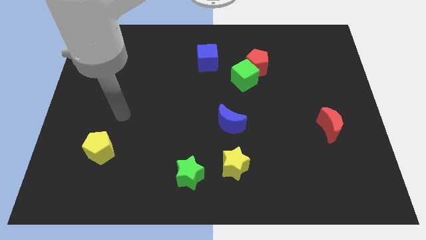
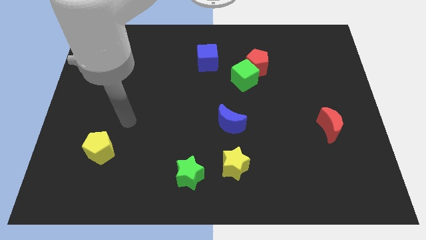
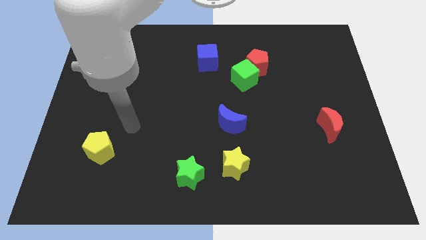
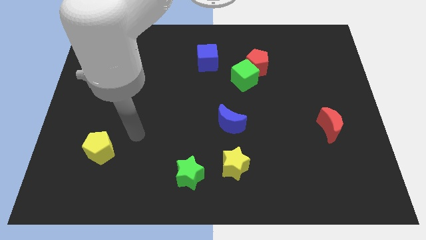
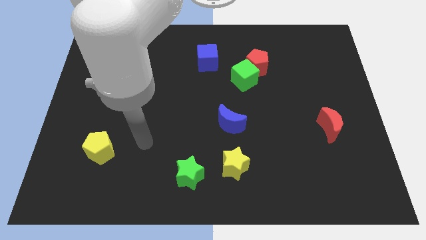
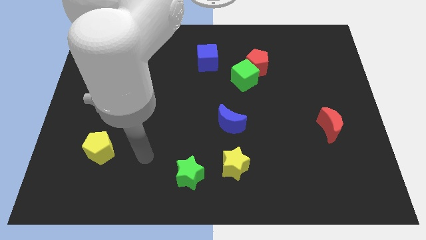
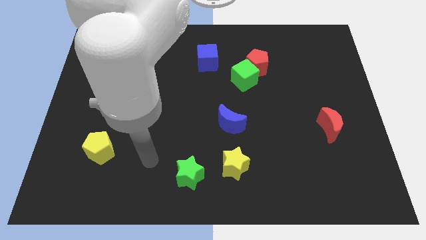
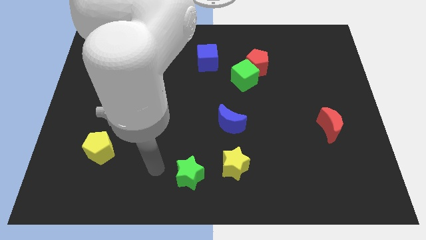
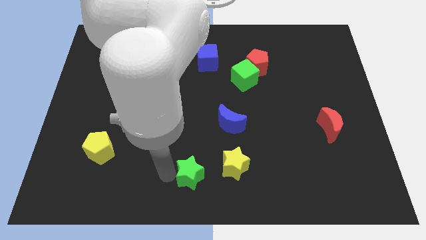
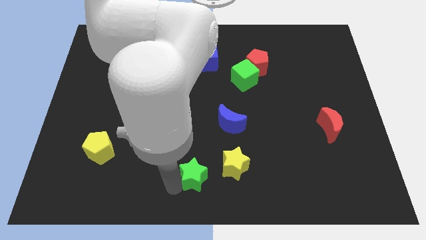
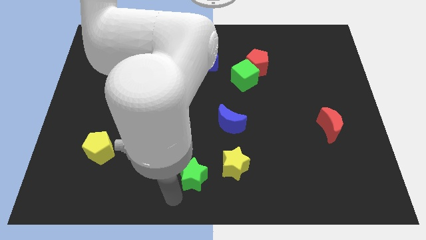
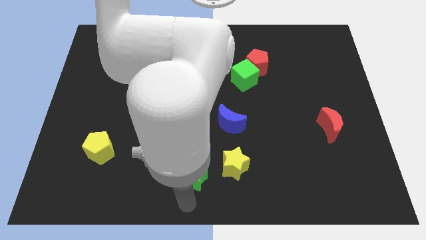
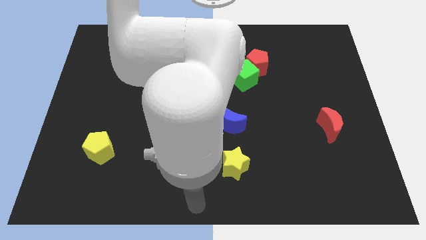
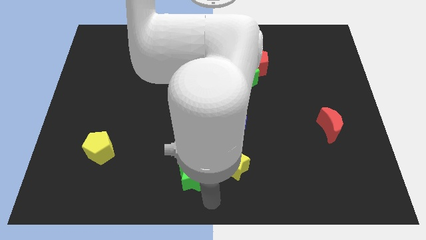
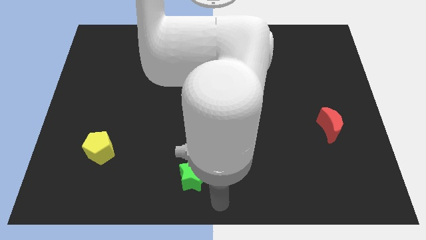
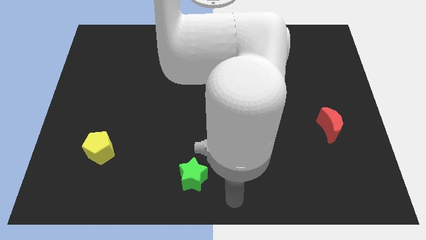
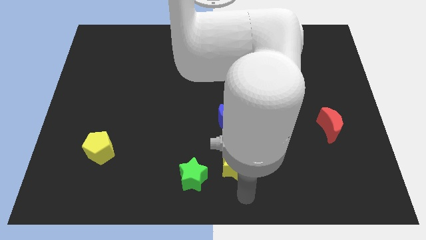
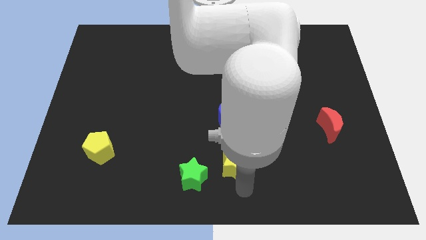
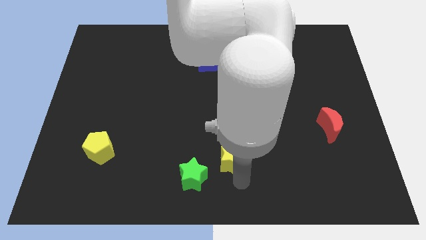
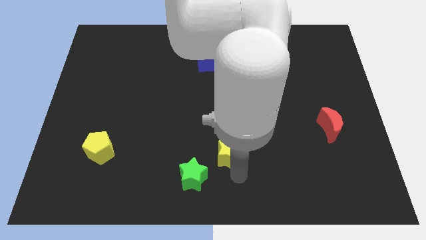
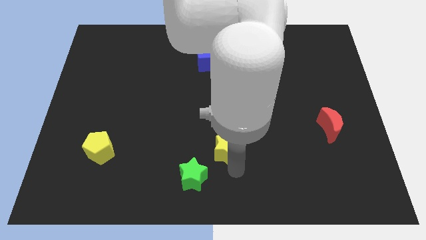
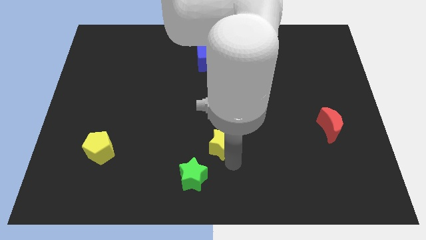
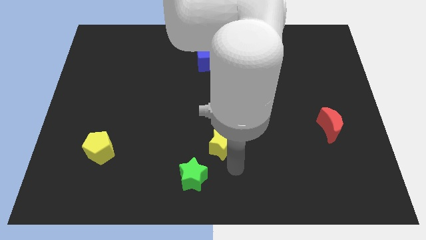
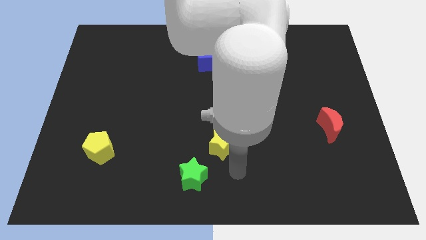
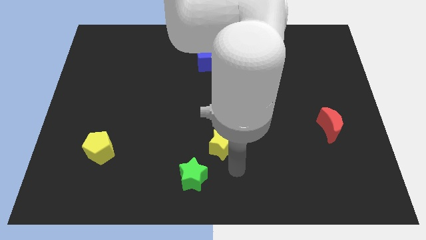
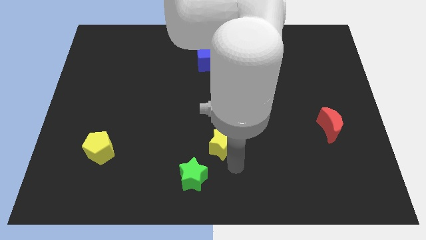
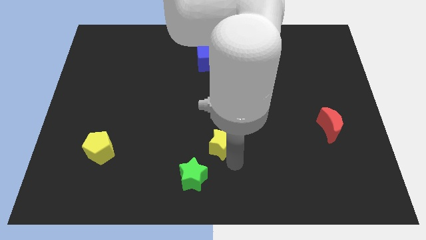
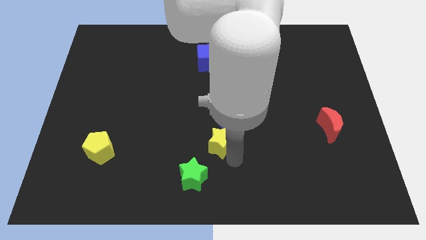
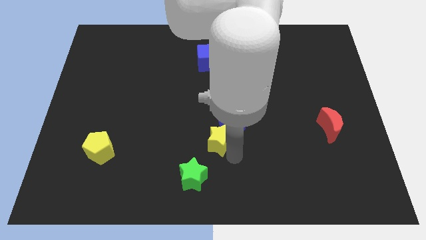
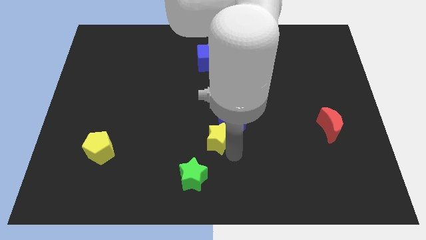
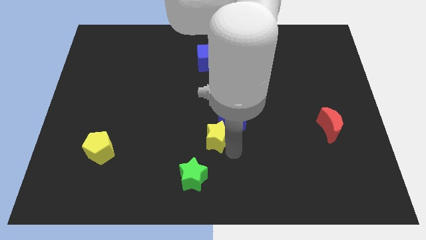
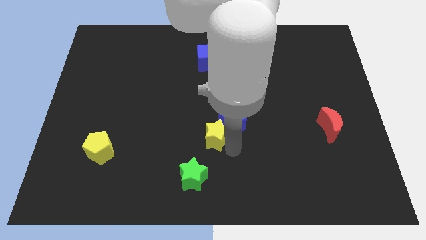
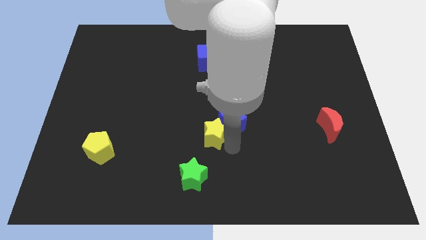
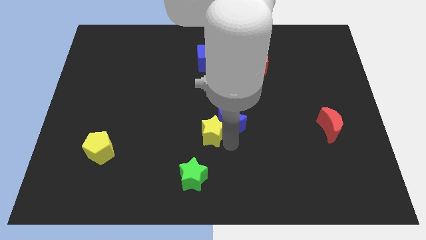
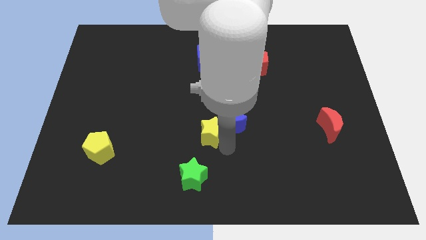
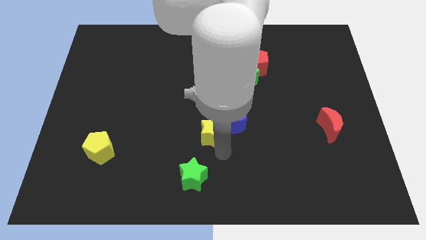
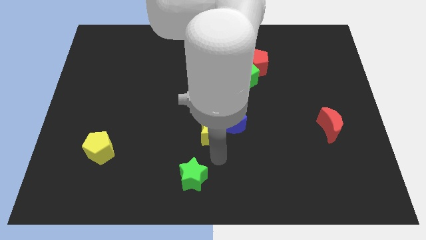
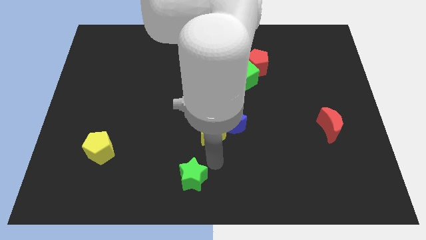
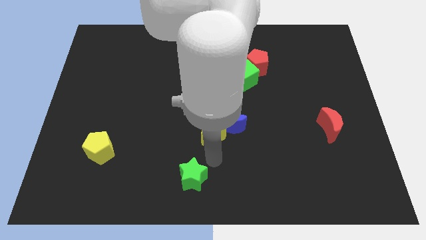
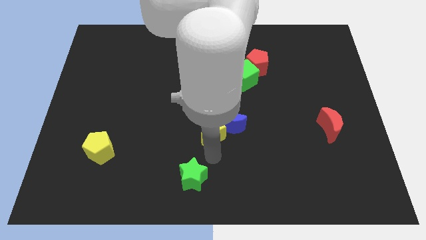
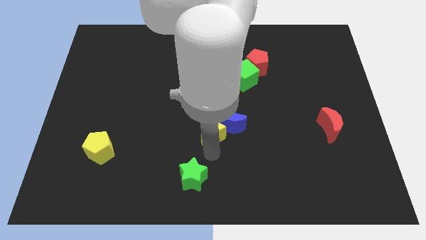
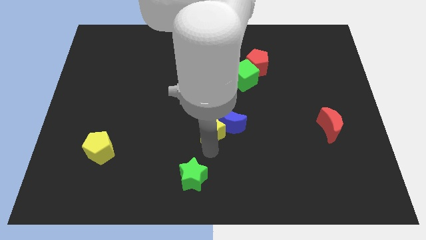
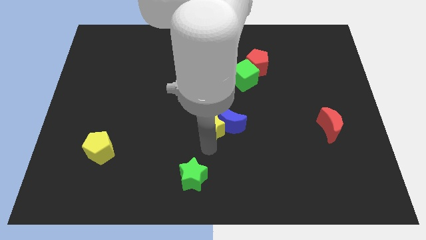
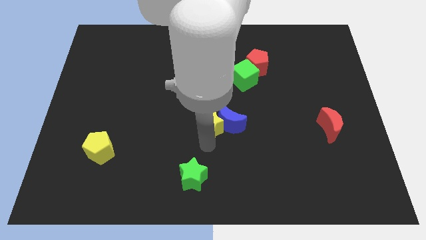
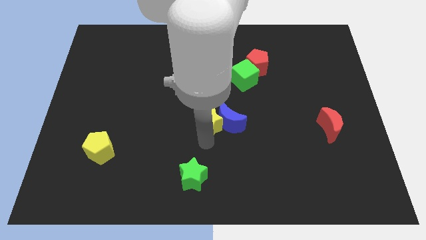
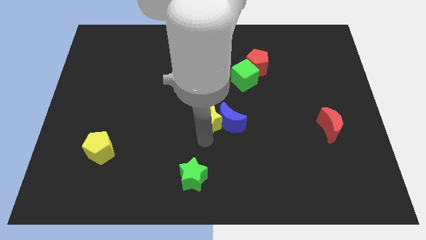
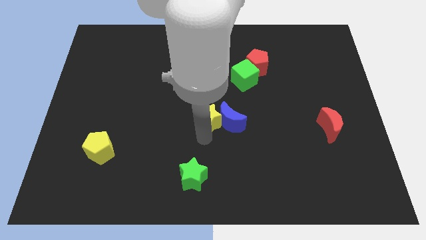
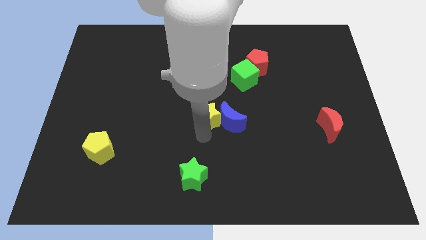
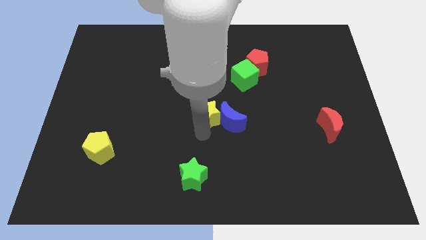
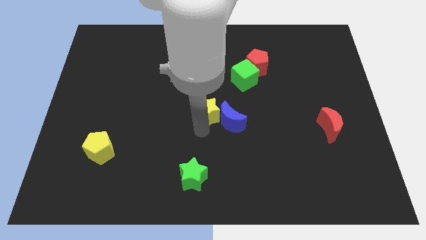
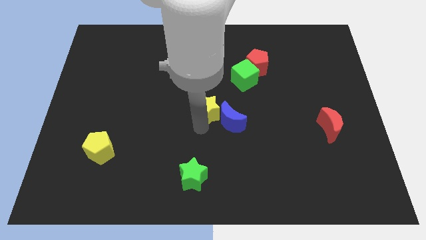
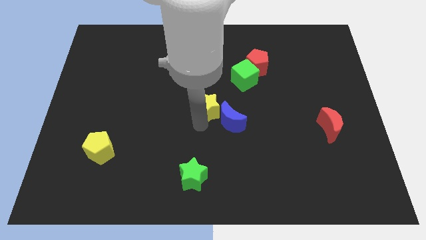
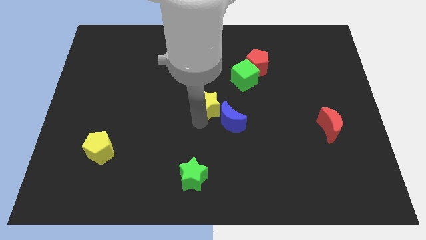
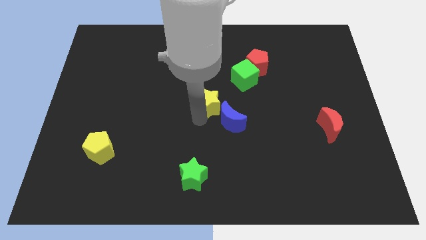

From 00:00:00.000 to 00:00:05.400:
push the yellow star diagonally down and to the left of the green cube

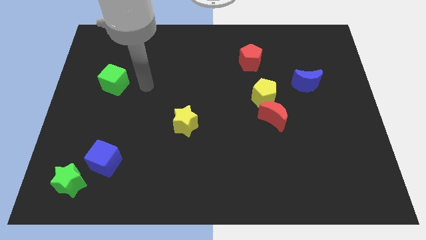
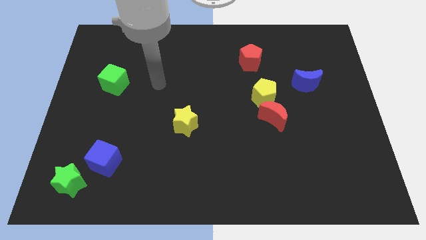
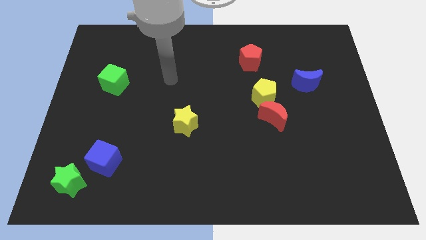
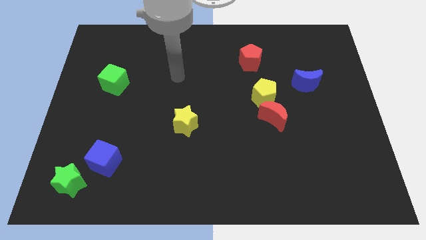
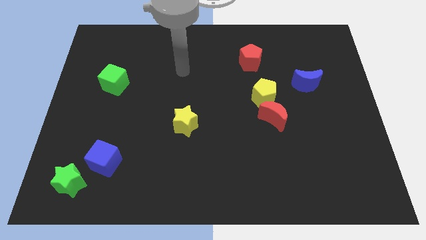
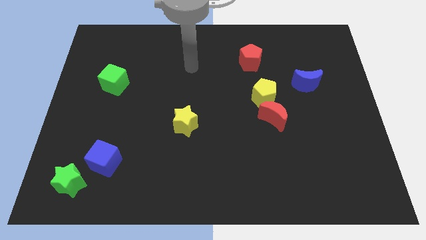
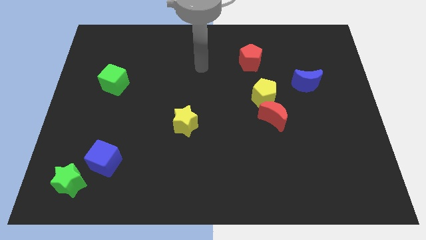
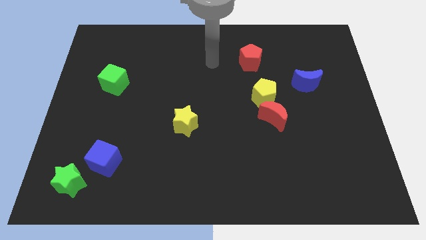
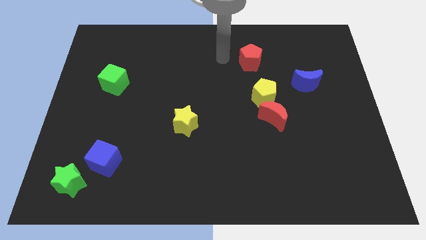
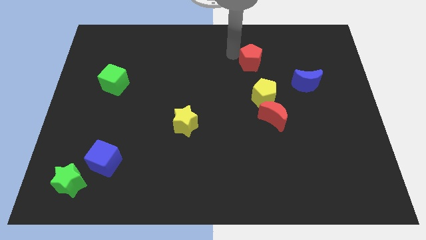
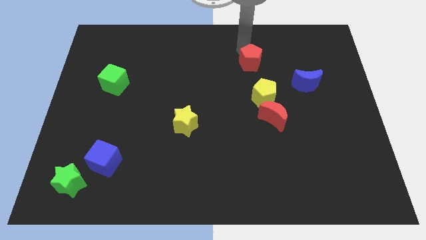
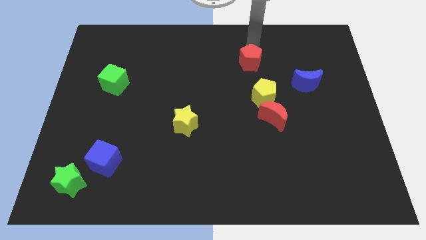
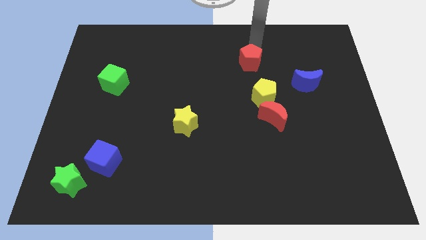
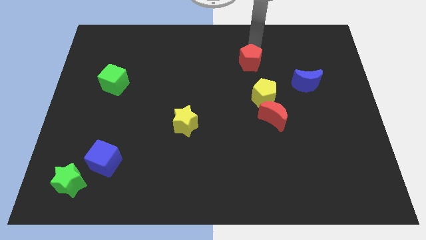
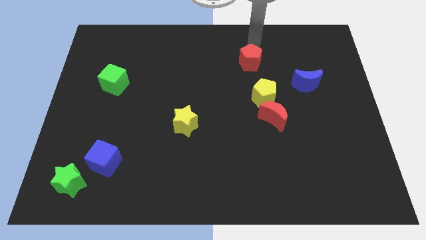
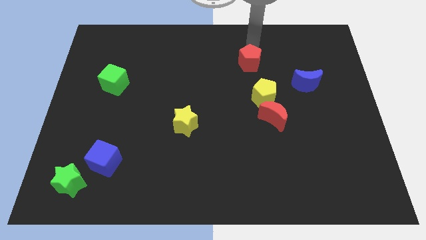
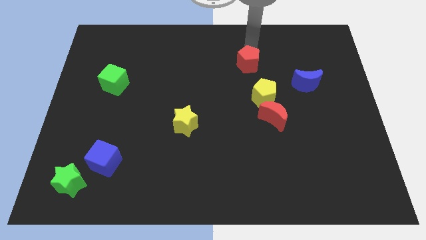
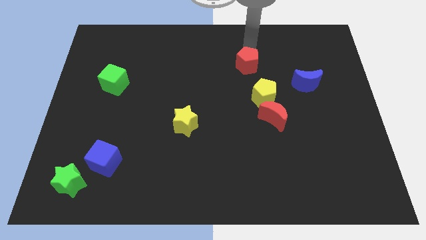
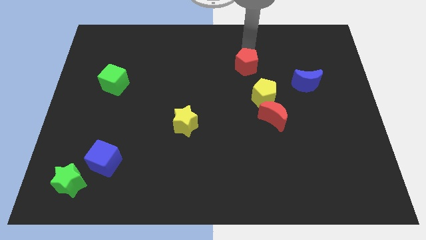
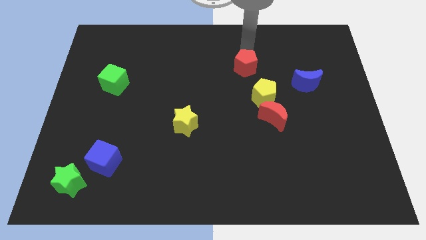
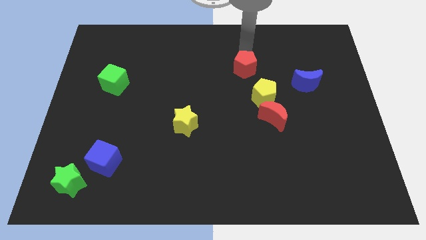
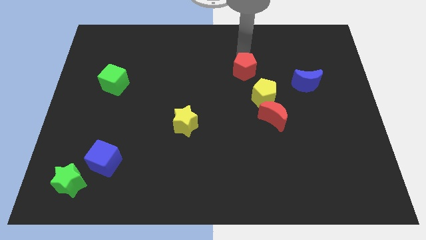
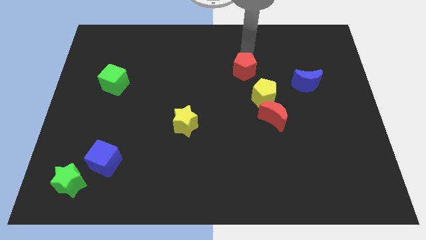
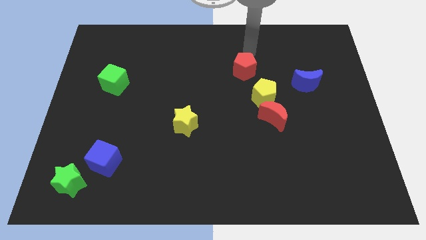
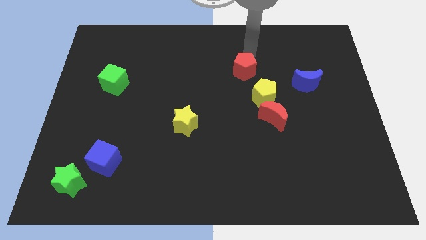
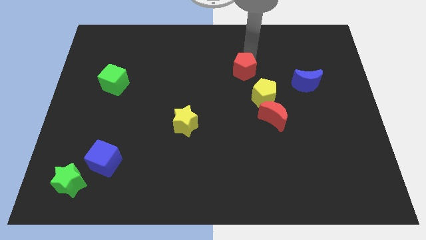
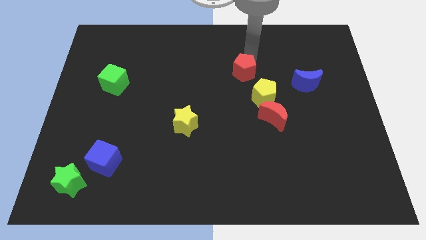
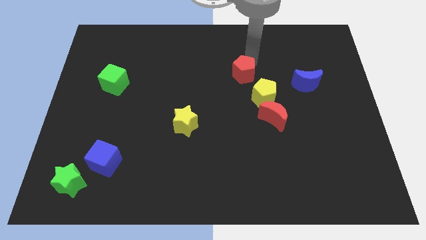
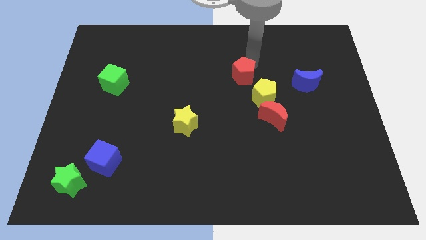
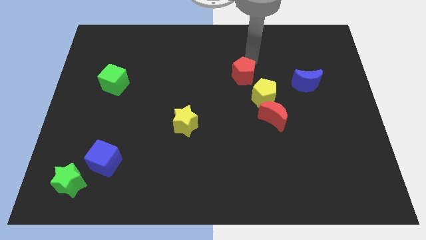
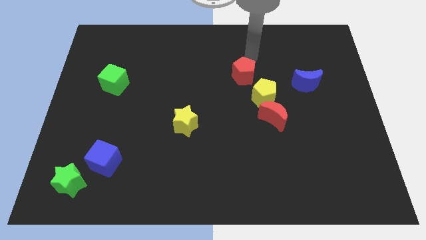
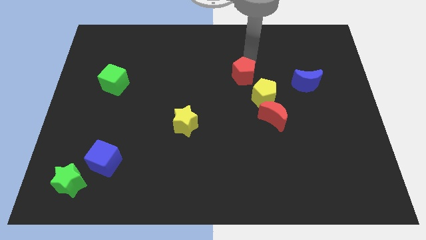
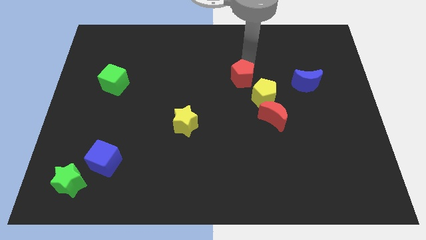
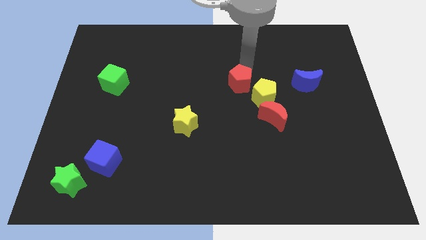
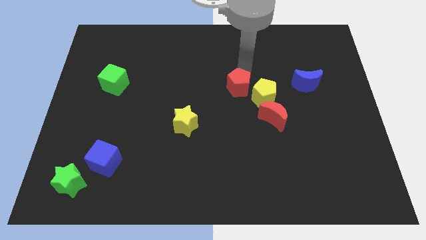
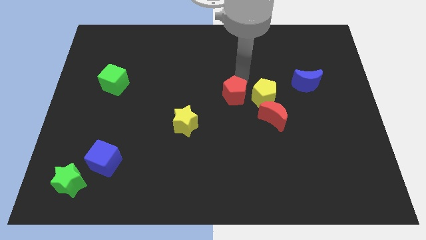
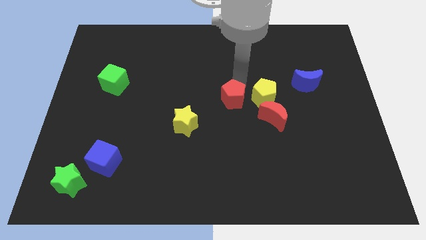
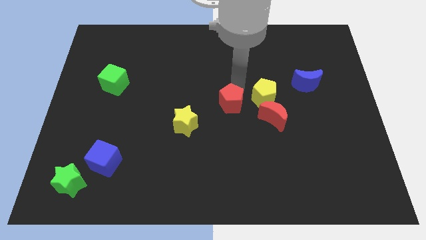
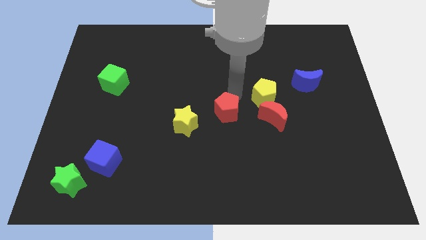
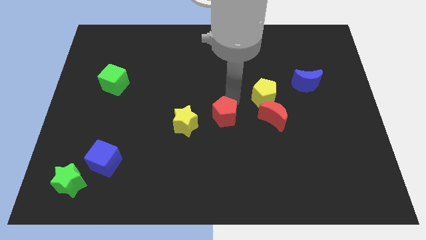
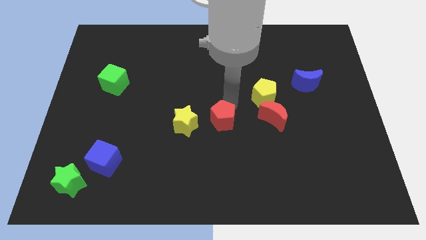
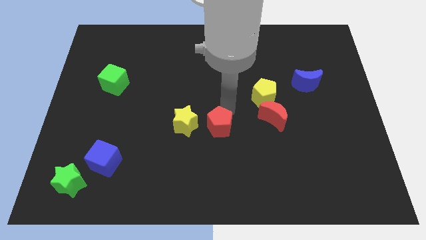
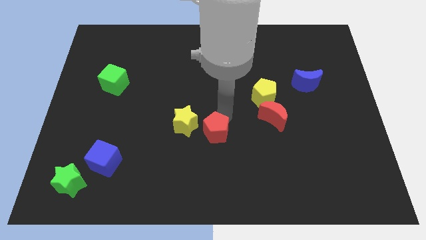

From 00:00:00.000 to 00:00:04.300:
slide the red pentagon diagonally down and to the right of the yellow star
